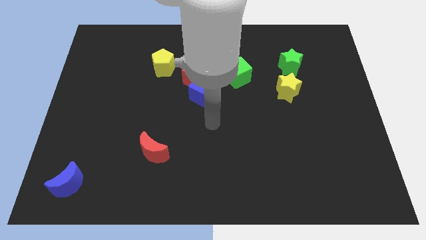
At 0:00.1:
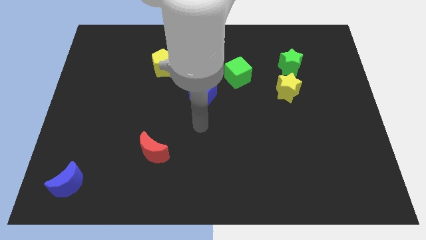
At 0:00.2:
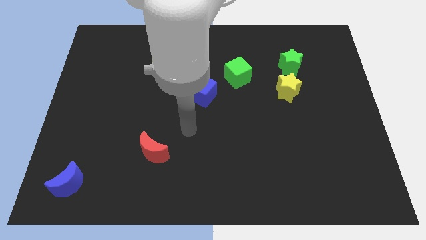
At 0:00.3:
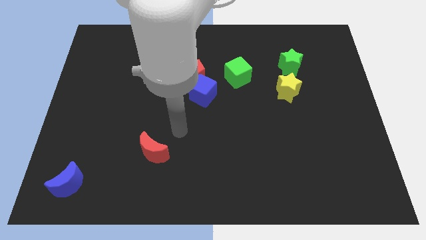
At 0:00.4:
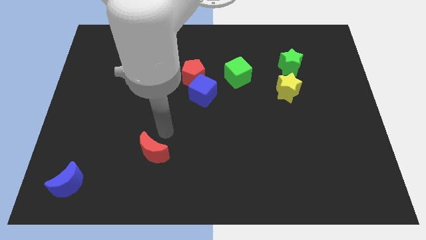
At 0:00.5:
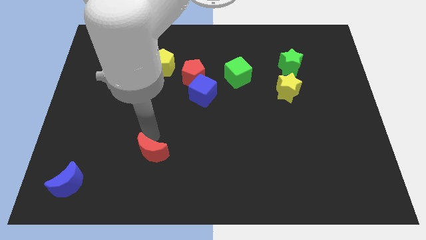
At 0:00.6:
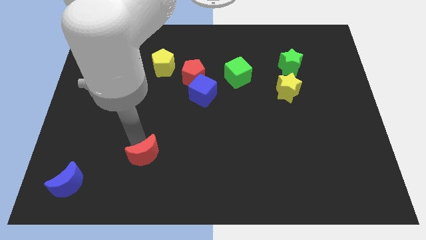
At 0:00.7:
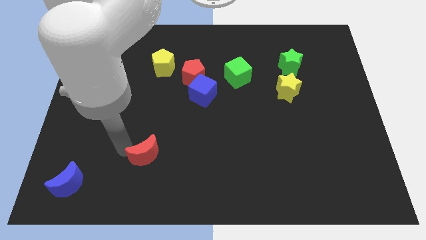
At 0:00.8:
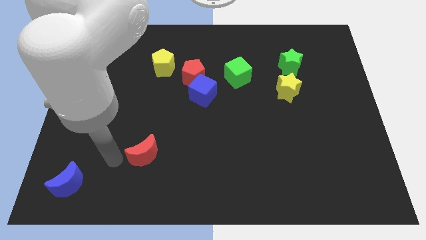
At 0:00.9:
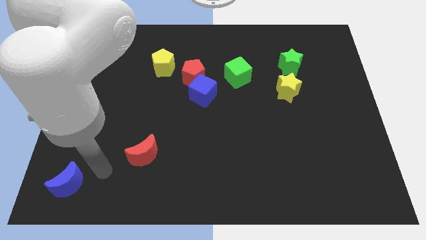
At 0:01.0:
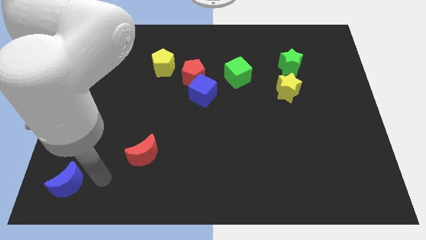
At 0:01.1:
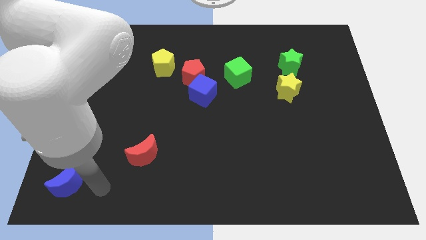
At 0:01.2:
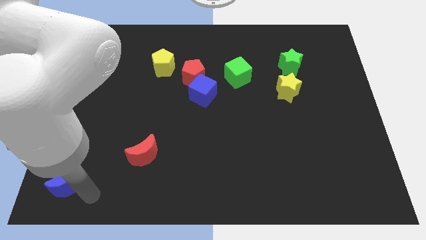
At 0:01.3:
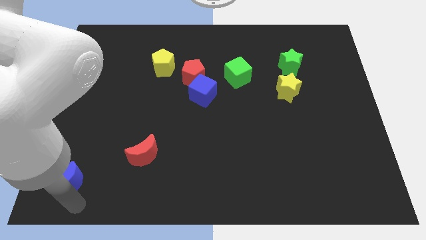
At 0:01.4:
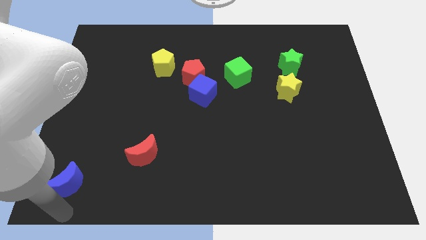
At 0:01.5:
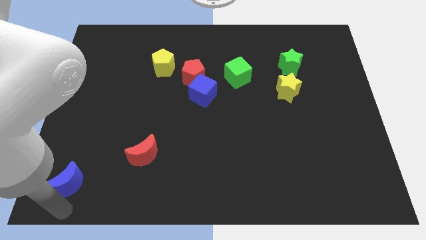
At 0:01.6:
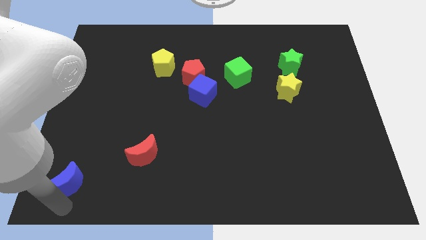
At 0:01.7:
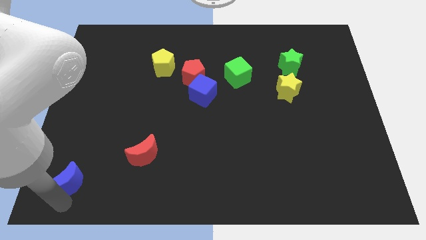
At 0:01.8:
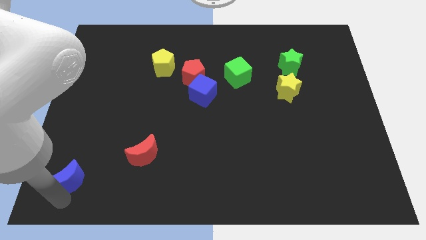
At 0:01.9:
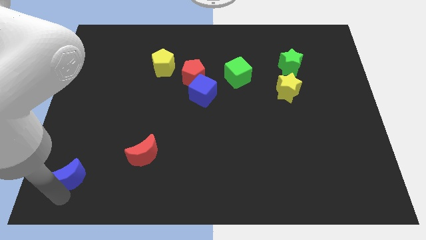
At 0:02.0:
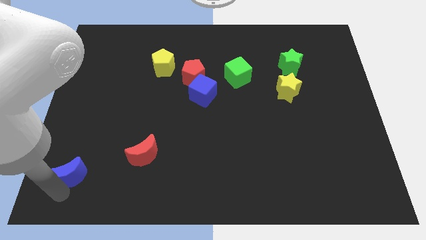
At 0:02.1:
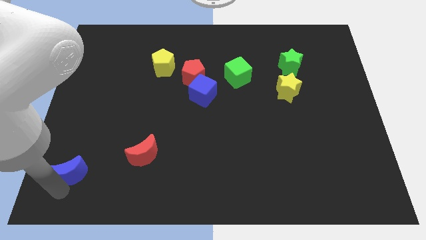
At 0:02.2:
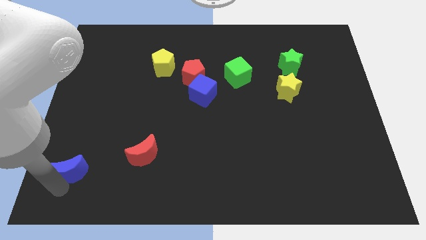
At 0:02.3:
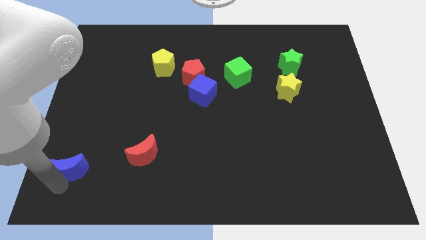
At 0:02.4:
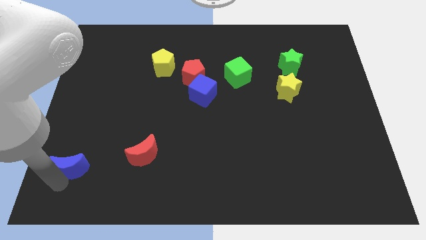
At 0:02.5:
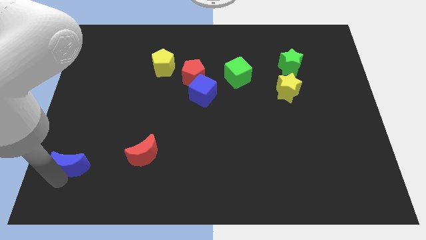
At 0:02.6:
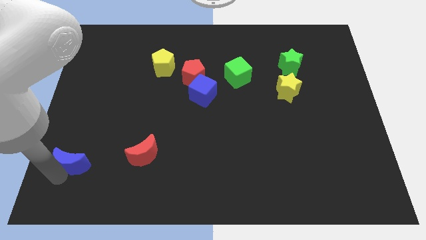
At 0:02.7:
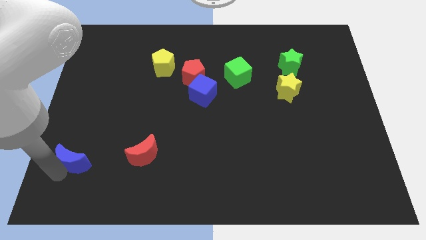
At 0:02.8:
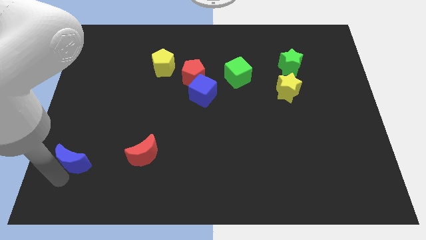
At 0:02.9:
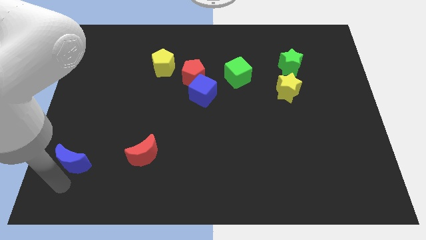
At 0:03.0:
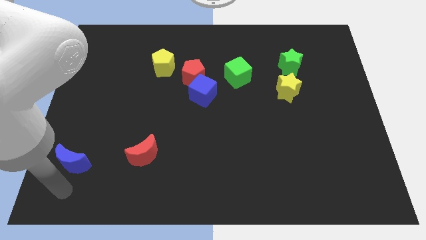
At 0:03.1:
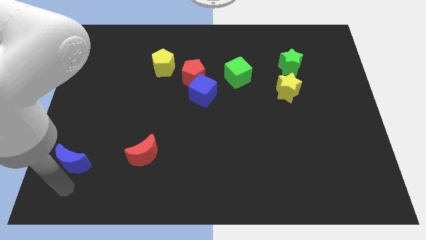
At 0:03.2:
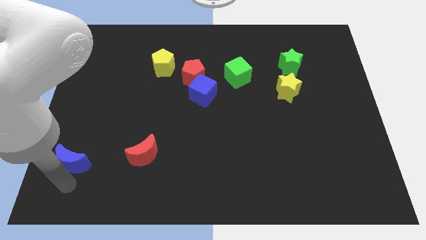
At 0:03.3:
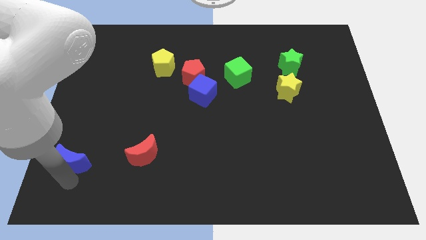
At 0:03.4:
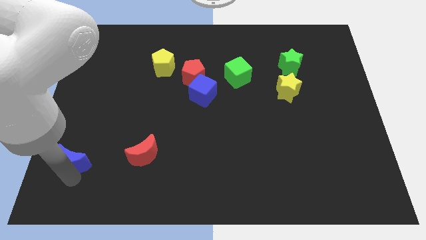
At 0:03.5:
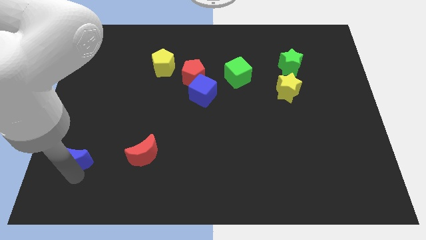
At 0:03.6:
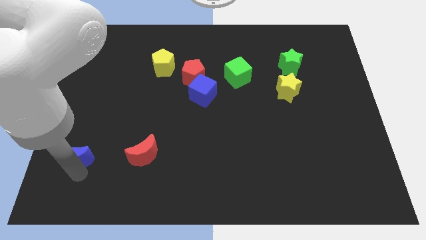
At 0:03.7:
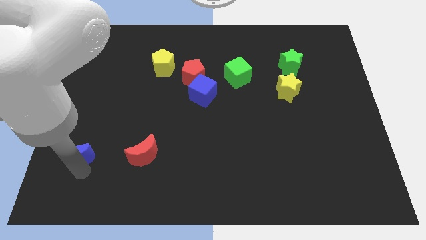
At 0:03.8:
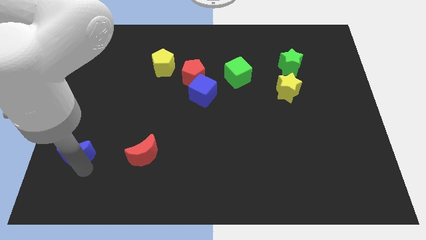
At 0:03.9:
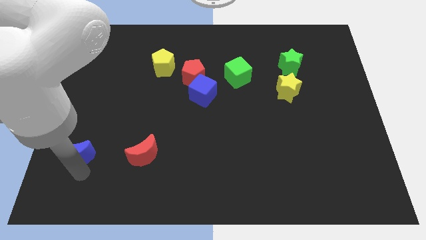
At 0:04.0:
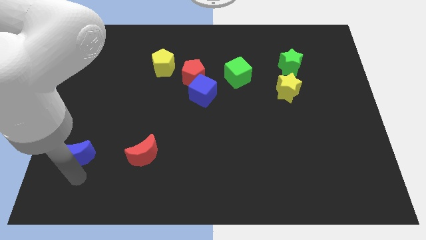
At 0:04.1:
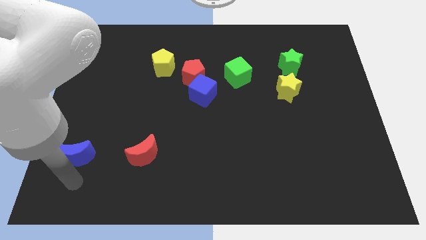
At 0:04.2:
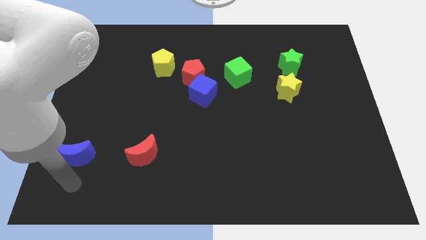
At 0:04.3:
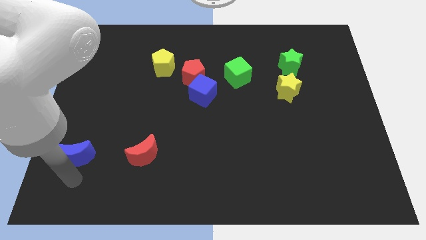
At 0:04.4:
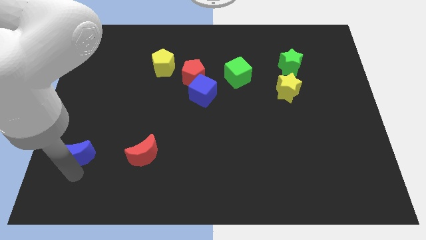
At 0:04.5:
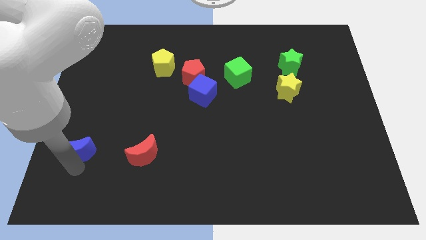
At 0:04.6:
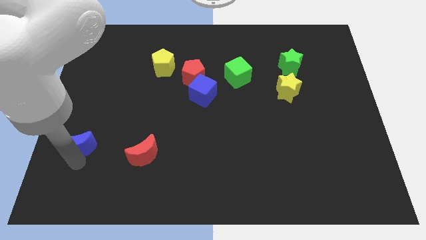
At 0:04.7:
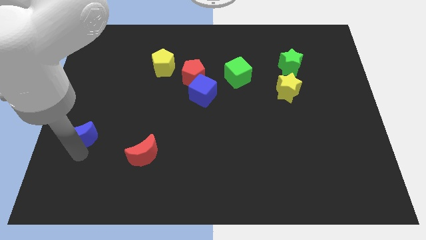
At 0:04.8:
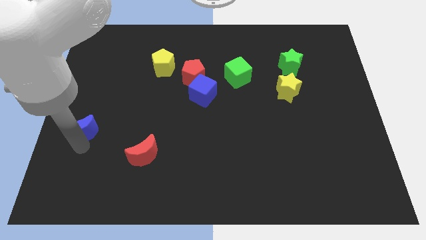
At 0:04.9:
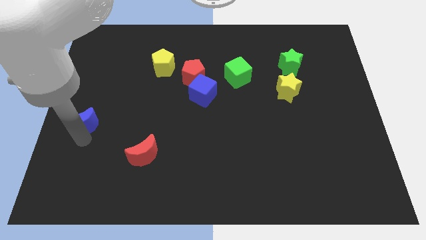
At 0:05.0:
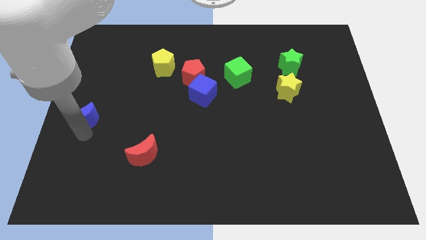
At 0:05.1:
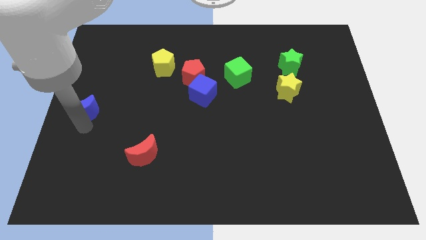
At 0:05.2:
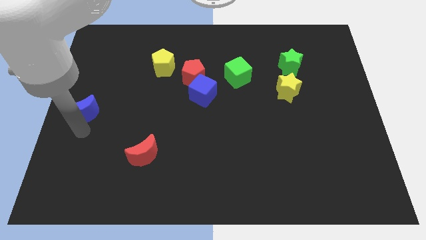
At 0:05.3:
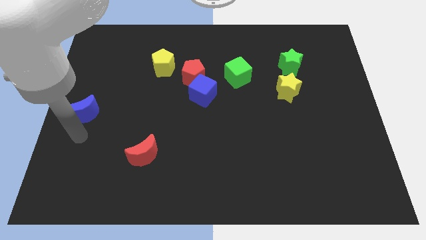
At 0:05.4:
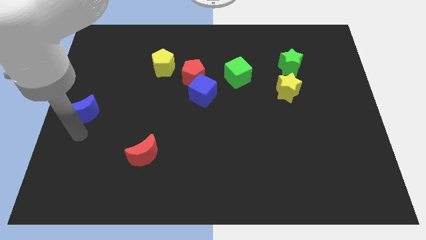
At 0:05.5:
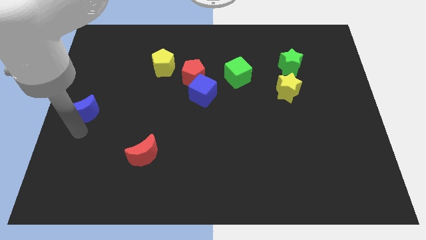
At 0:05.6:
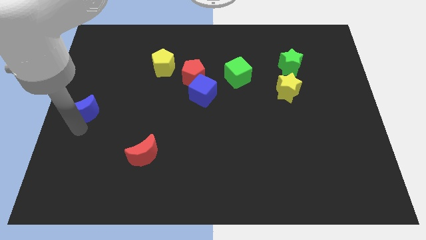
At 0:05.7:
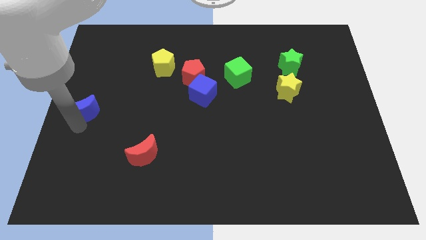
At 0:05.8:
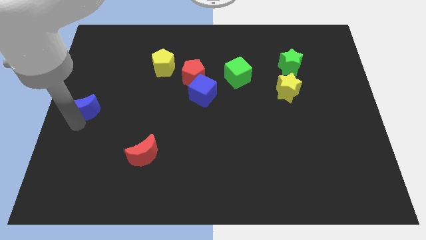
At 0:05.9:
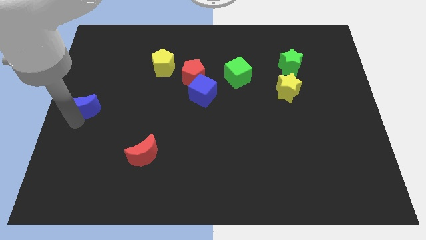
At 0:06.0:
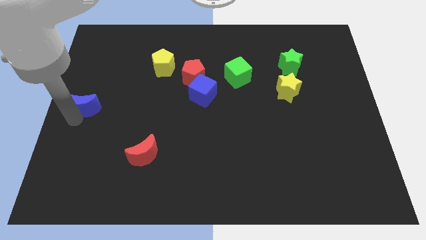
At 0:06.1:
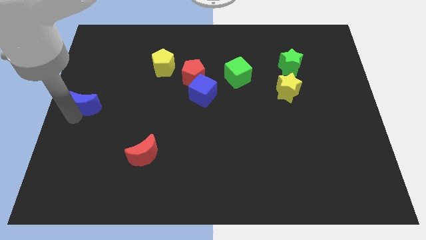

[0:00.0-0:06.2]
push the blue moon up

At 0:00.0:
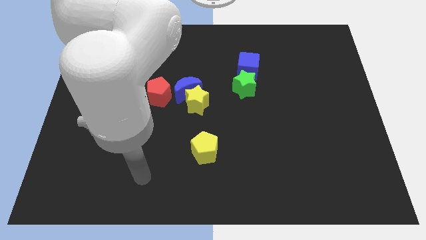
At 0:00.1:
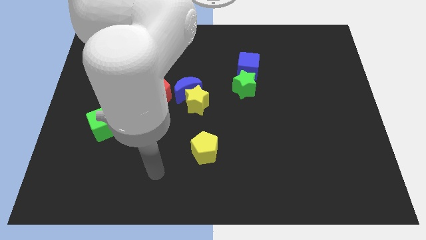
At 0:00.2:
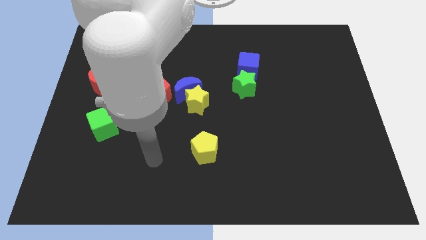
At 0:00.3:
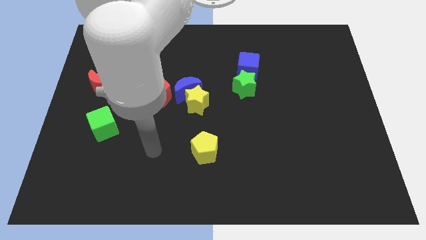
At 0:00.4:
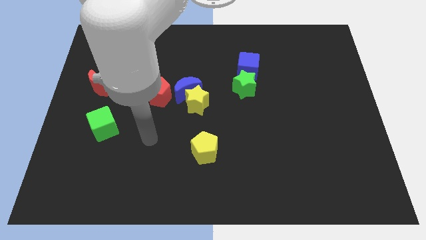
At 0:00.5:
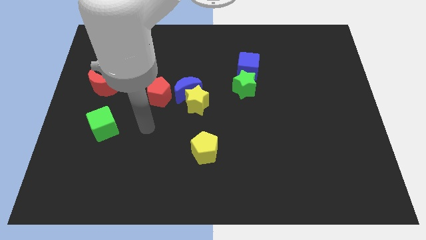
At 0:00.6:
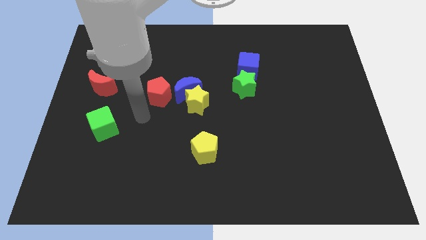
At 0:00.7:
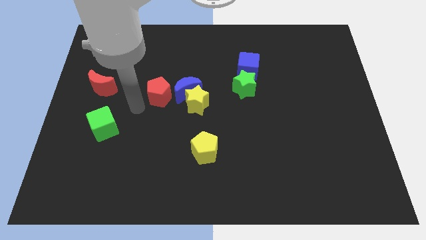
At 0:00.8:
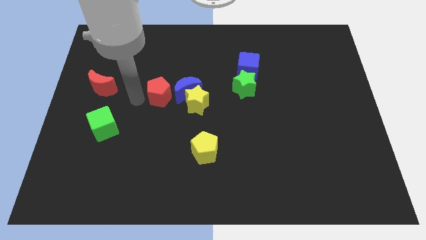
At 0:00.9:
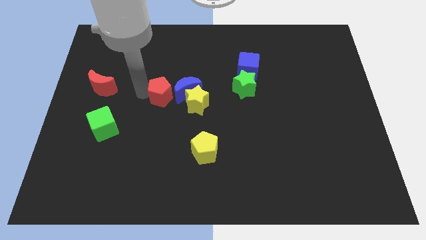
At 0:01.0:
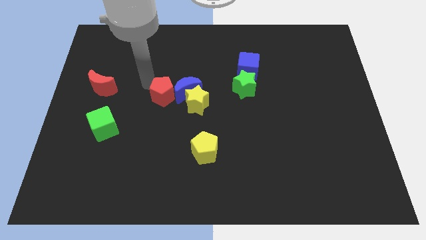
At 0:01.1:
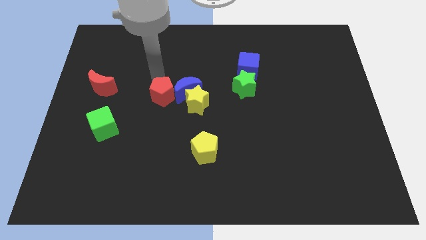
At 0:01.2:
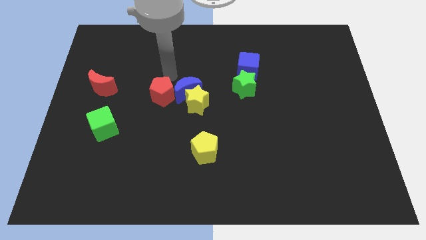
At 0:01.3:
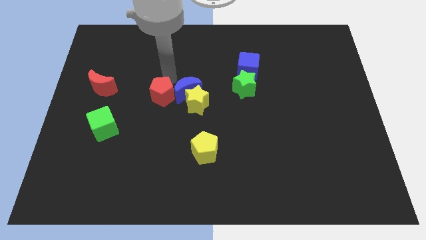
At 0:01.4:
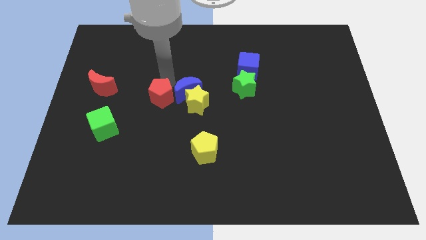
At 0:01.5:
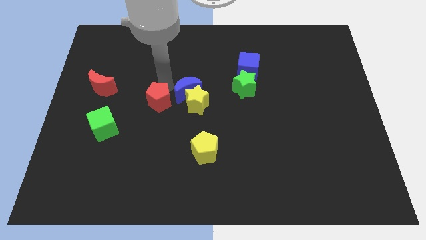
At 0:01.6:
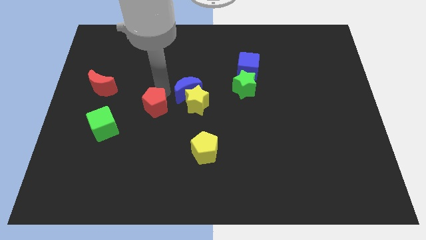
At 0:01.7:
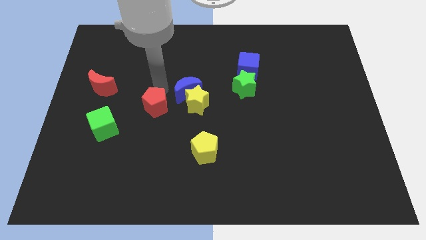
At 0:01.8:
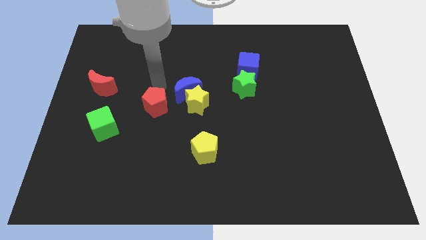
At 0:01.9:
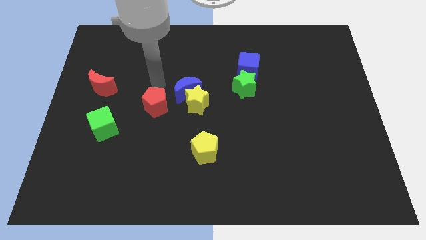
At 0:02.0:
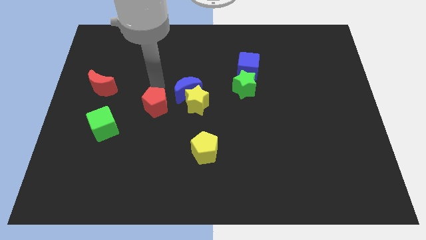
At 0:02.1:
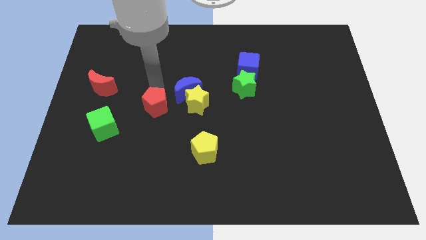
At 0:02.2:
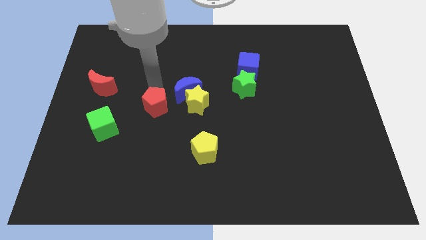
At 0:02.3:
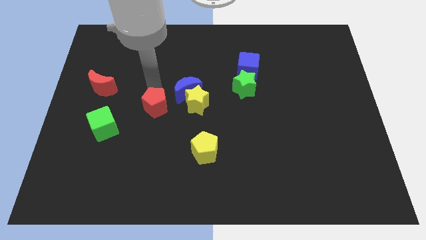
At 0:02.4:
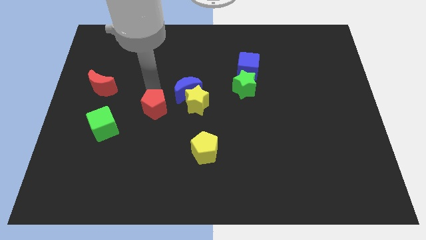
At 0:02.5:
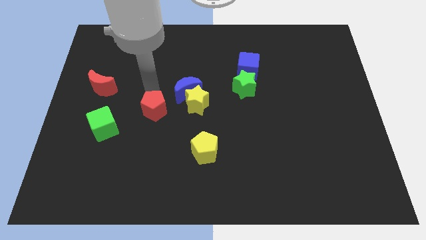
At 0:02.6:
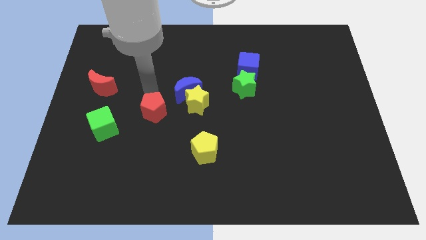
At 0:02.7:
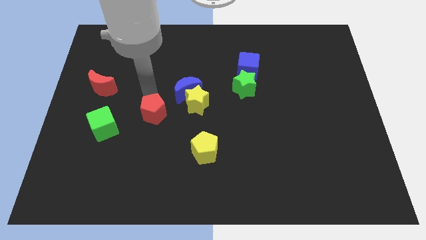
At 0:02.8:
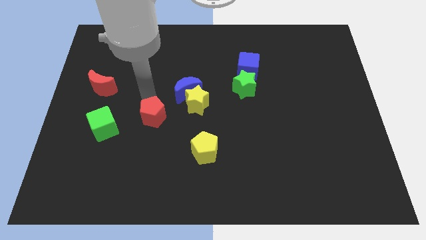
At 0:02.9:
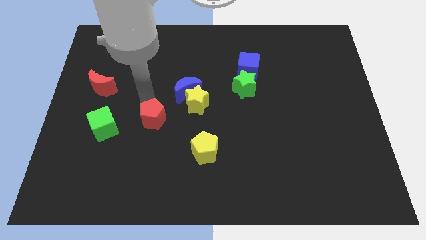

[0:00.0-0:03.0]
slightly slide the red pentagon downwards
